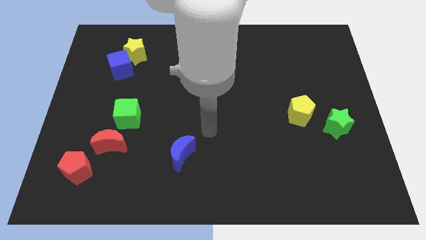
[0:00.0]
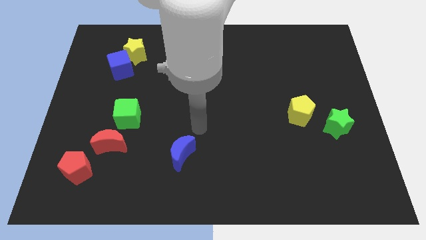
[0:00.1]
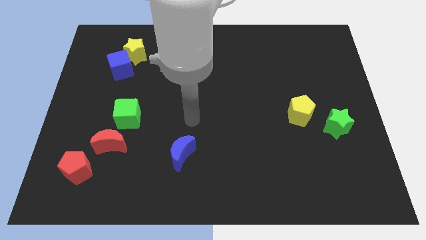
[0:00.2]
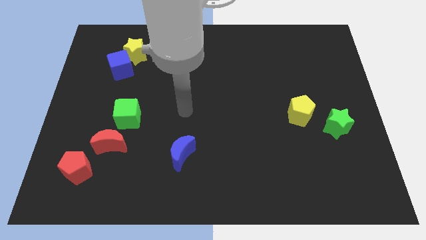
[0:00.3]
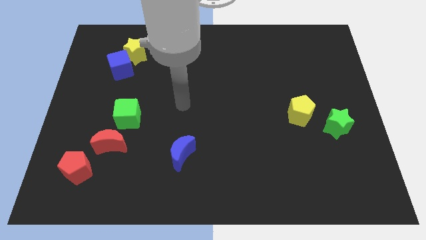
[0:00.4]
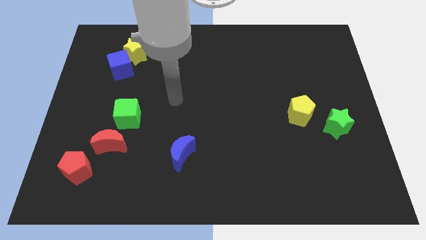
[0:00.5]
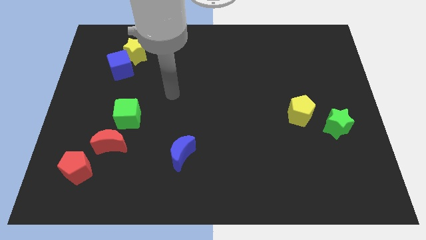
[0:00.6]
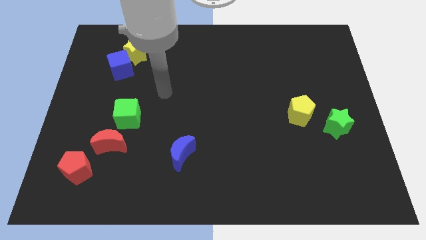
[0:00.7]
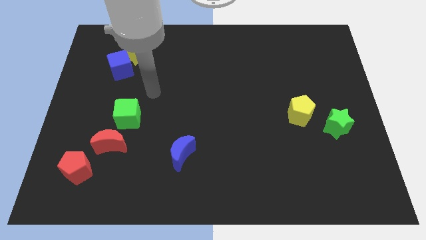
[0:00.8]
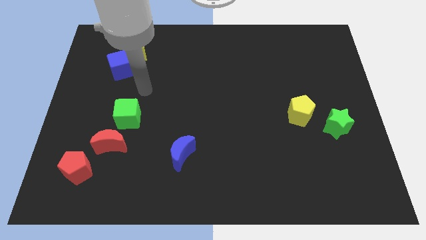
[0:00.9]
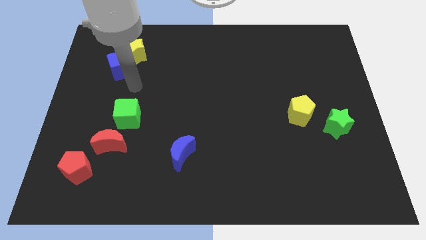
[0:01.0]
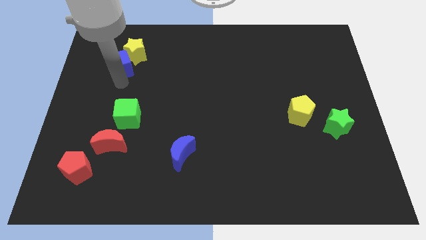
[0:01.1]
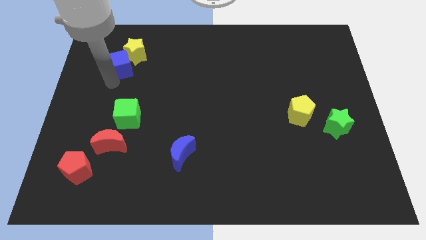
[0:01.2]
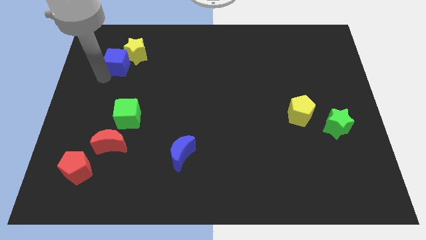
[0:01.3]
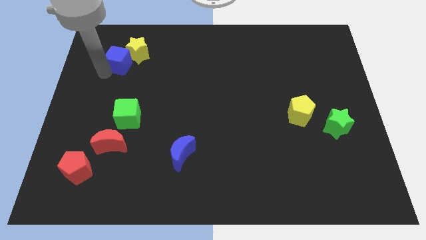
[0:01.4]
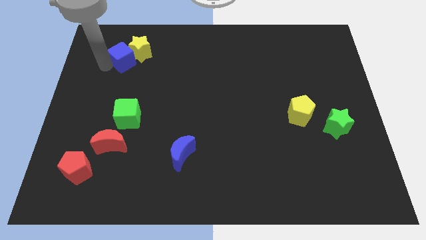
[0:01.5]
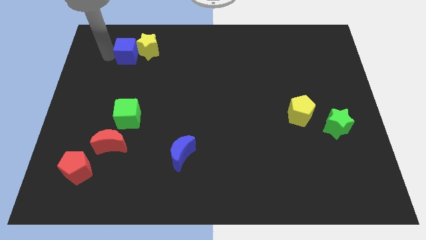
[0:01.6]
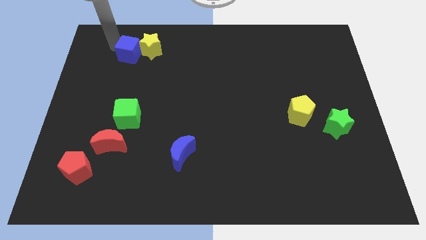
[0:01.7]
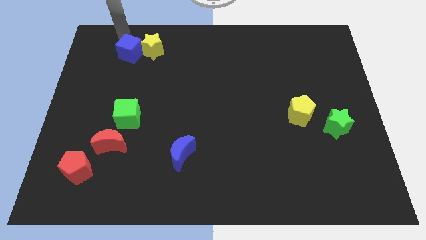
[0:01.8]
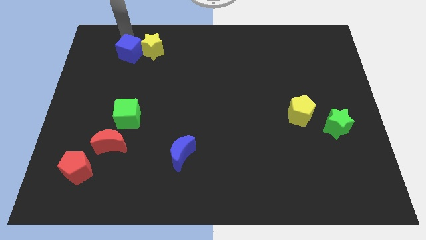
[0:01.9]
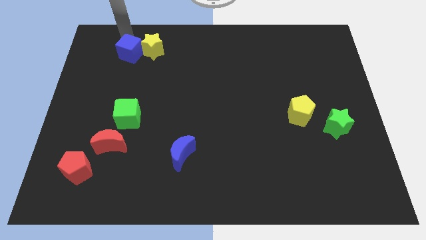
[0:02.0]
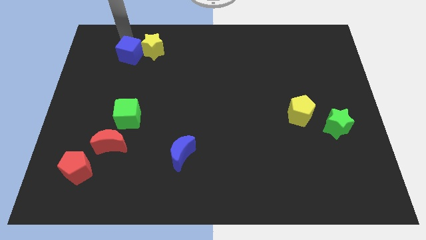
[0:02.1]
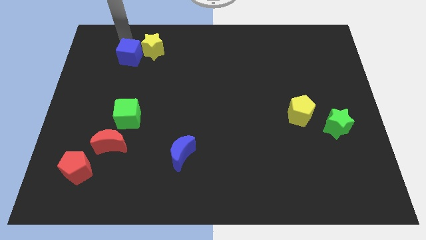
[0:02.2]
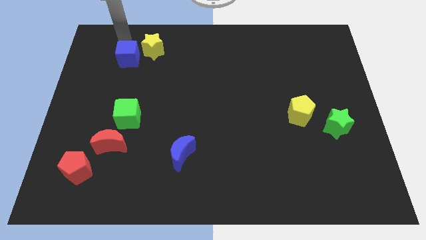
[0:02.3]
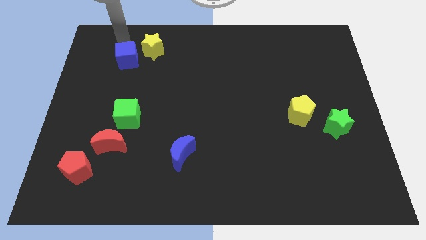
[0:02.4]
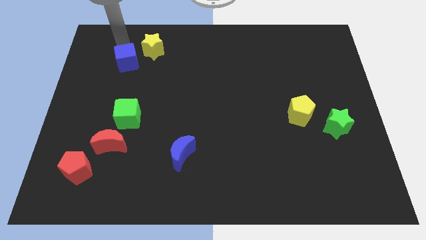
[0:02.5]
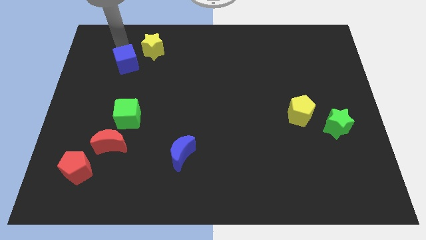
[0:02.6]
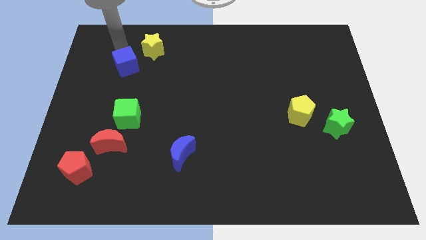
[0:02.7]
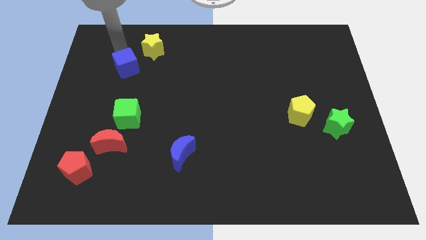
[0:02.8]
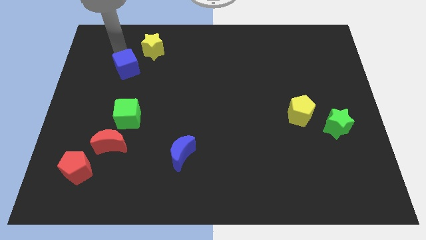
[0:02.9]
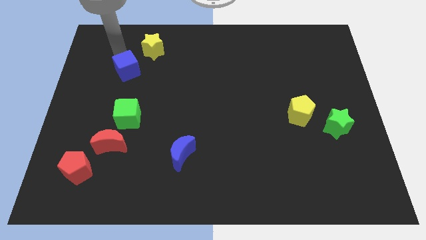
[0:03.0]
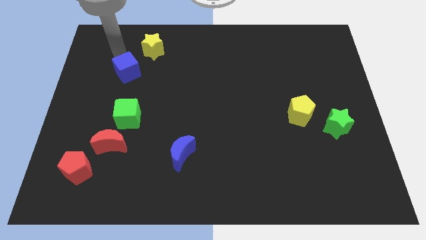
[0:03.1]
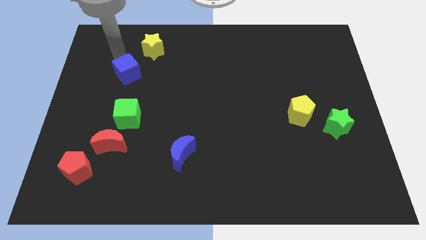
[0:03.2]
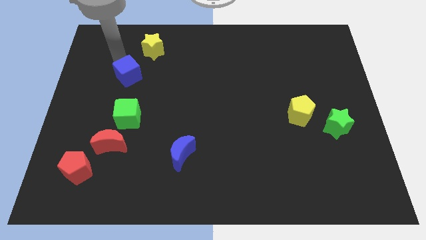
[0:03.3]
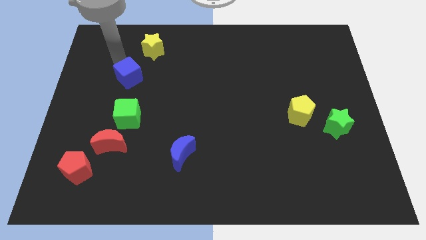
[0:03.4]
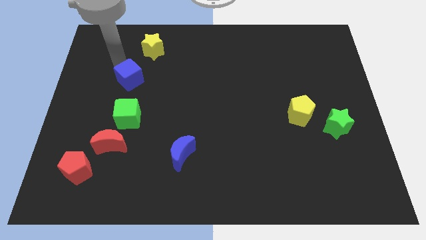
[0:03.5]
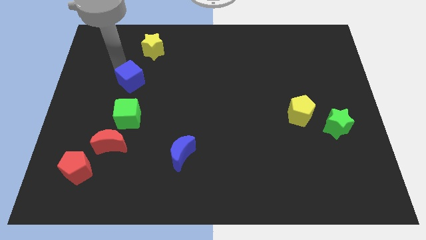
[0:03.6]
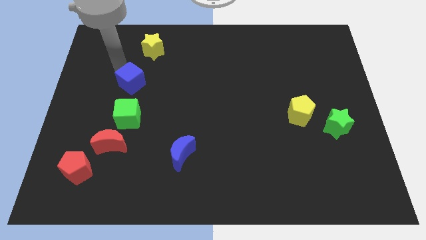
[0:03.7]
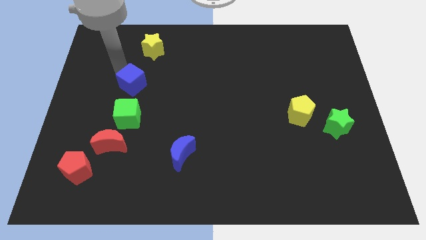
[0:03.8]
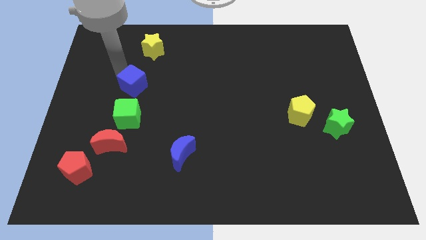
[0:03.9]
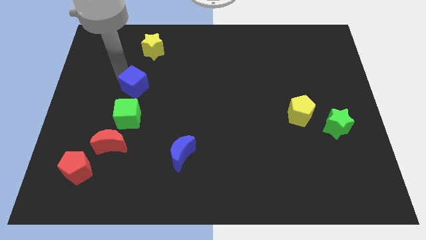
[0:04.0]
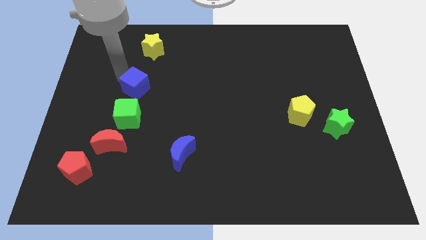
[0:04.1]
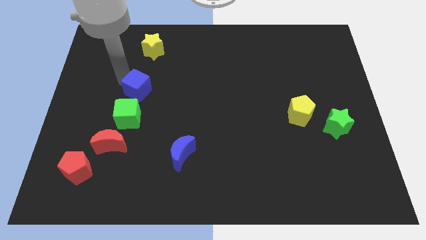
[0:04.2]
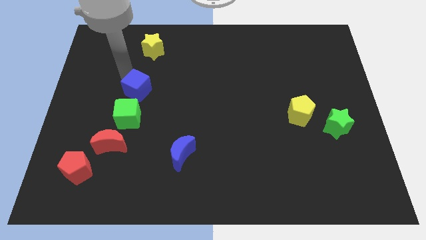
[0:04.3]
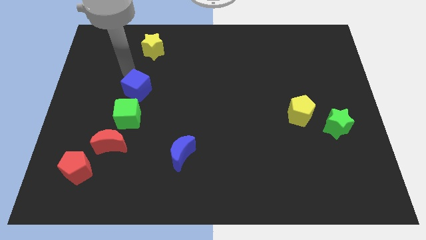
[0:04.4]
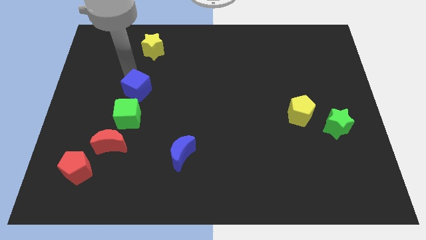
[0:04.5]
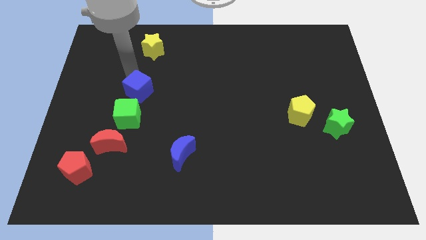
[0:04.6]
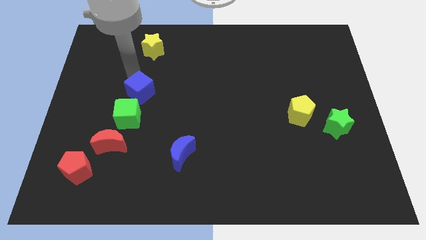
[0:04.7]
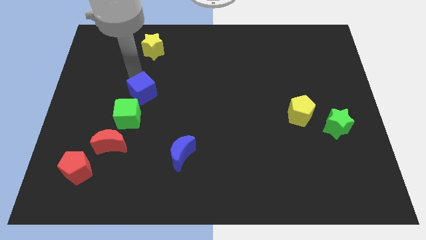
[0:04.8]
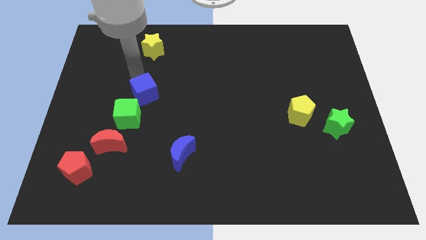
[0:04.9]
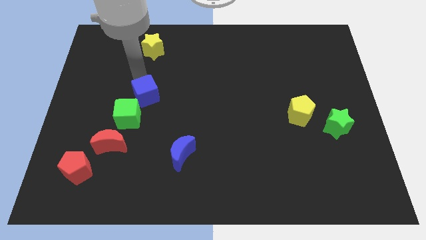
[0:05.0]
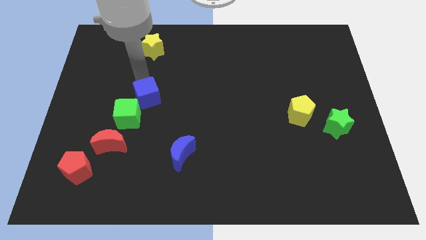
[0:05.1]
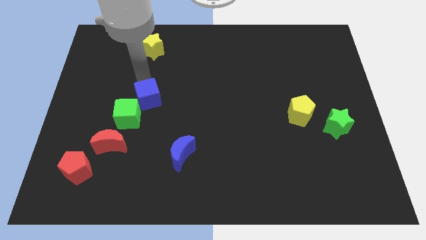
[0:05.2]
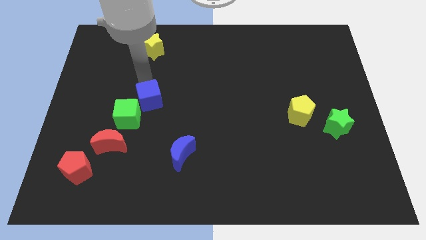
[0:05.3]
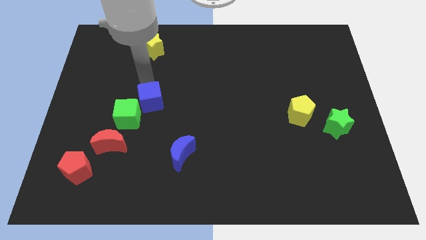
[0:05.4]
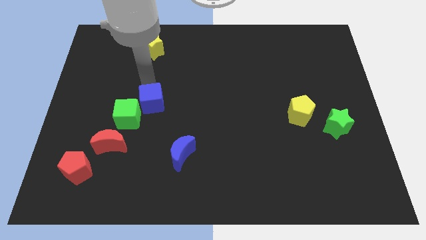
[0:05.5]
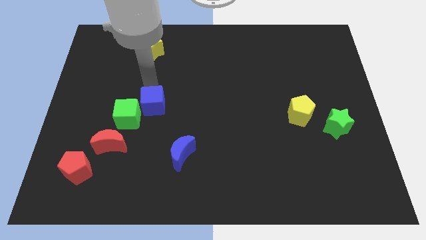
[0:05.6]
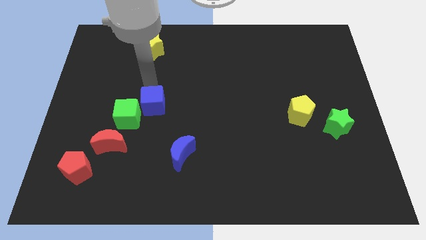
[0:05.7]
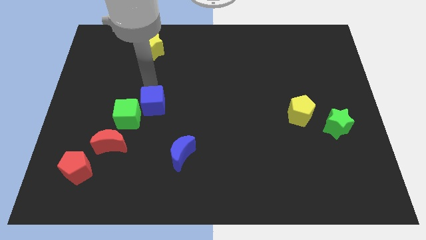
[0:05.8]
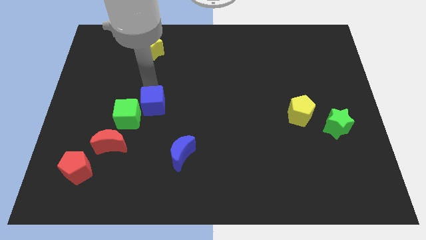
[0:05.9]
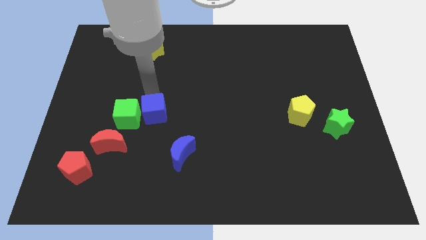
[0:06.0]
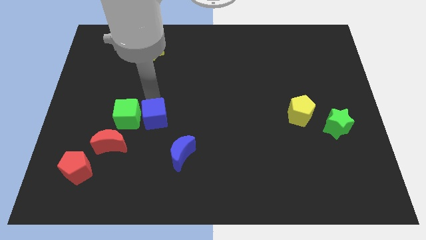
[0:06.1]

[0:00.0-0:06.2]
push the blue cube to the top left side of the blue moon
